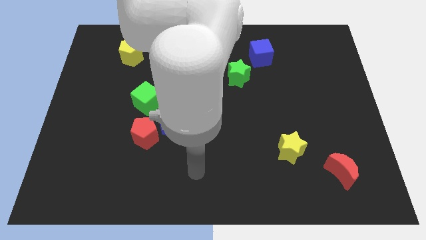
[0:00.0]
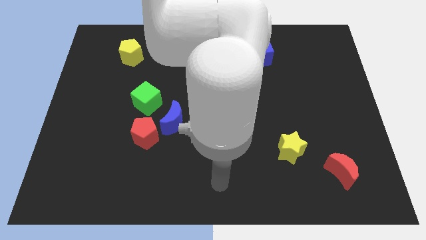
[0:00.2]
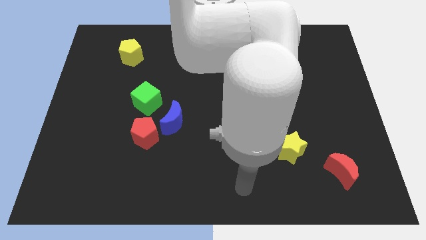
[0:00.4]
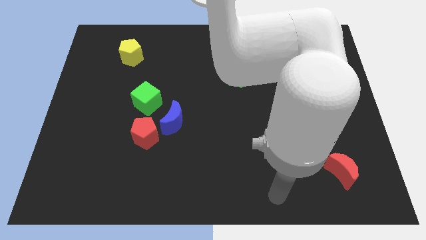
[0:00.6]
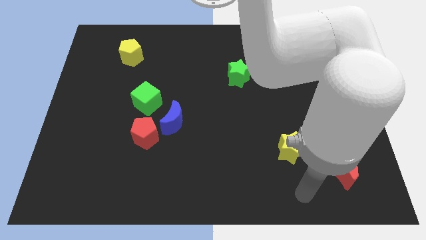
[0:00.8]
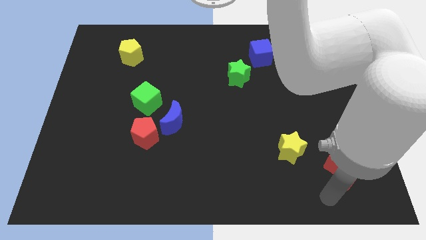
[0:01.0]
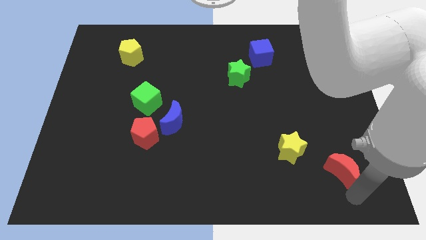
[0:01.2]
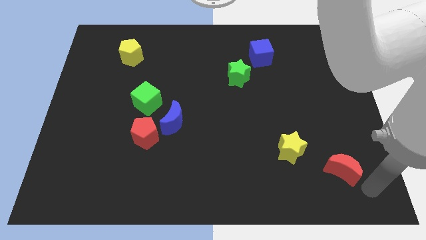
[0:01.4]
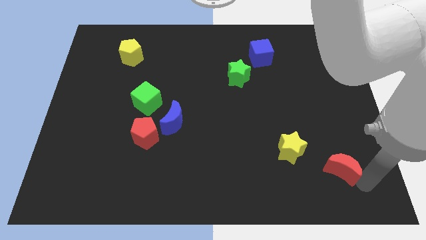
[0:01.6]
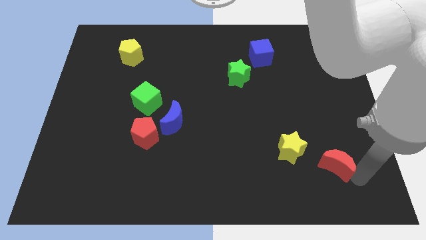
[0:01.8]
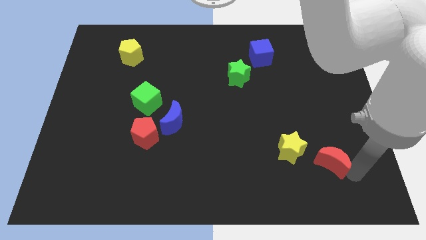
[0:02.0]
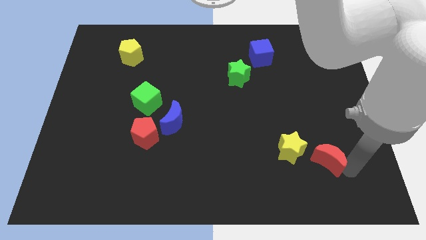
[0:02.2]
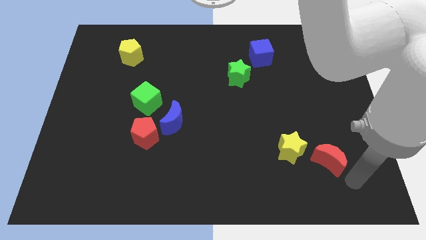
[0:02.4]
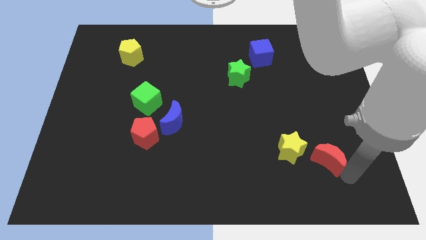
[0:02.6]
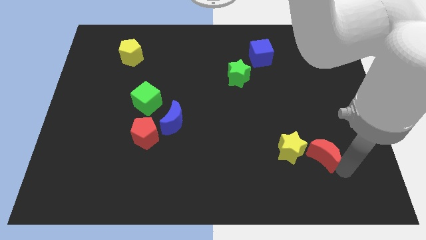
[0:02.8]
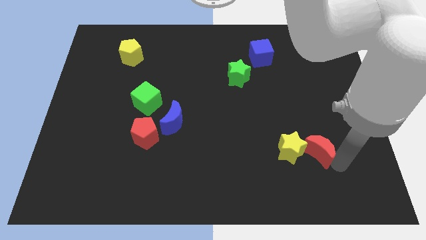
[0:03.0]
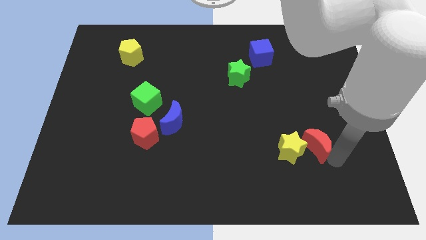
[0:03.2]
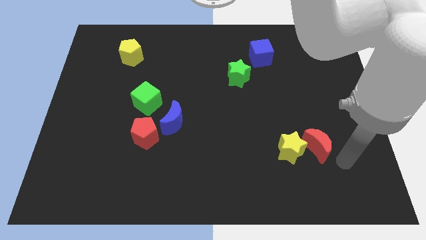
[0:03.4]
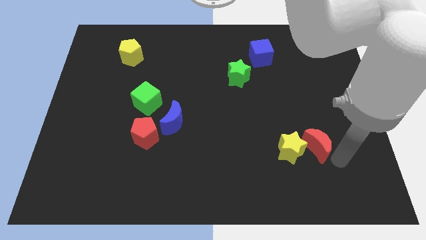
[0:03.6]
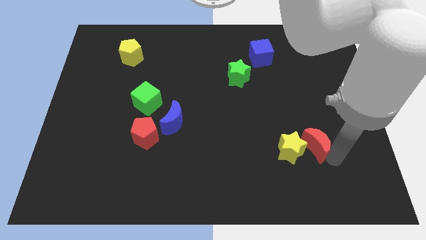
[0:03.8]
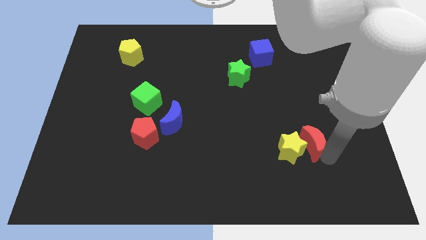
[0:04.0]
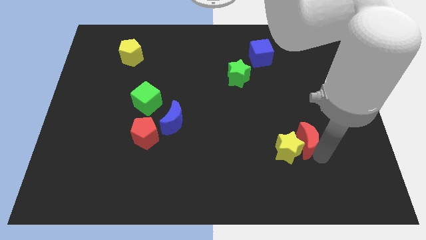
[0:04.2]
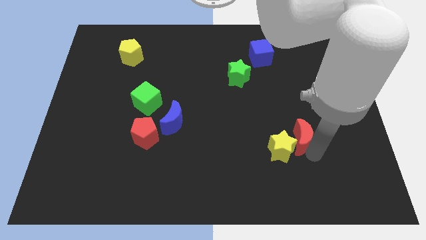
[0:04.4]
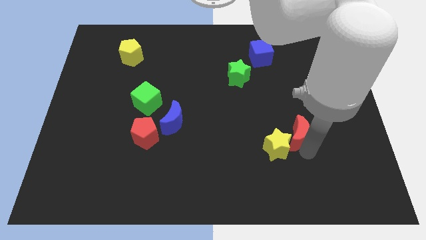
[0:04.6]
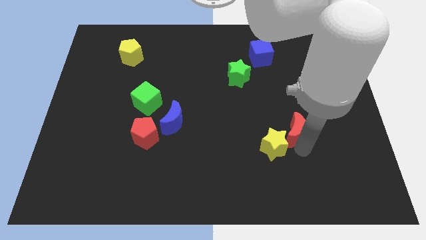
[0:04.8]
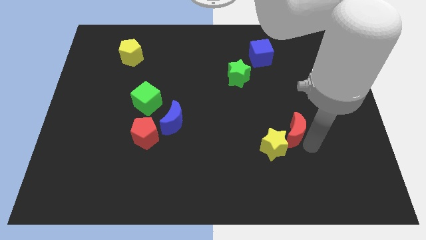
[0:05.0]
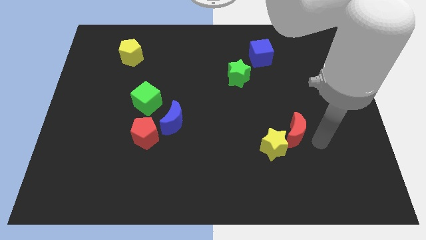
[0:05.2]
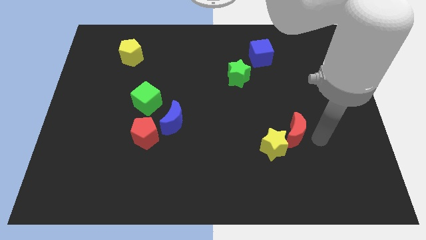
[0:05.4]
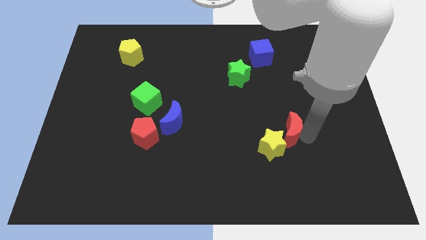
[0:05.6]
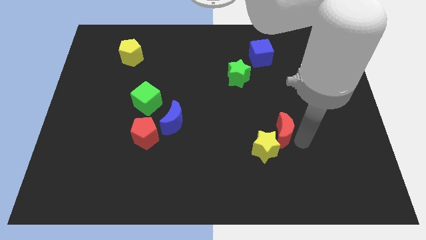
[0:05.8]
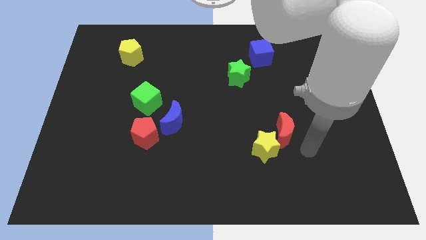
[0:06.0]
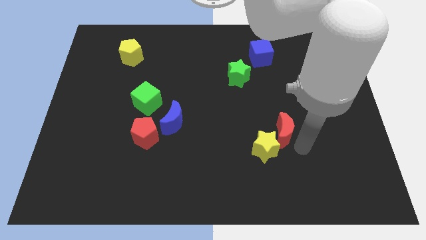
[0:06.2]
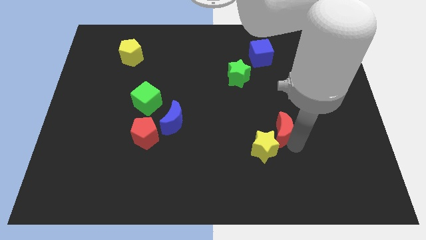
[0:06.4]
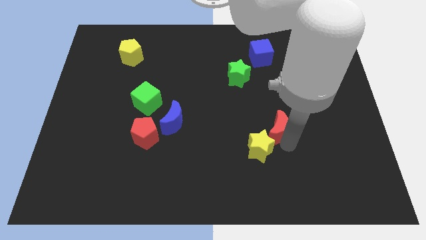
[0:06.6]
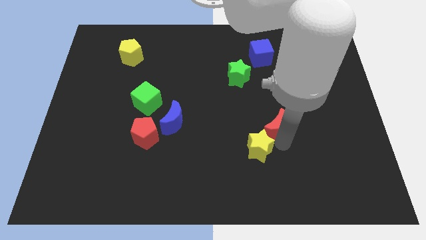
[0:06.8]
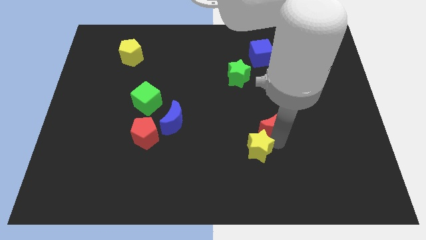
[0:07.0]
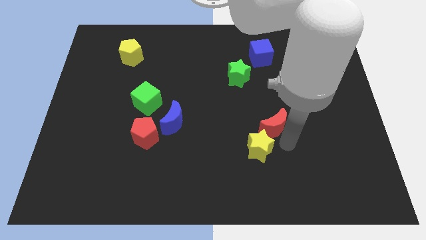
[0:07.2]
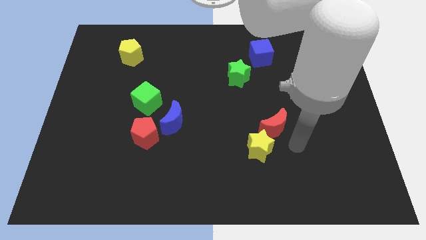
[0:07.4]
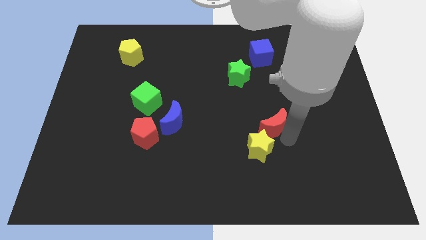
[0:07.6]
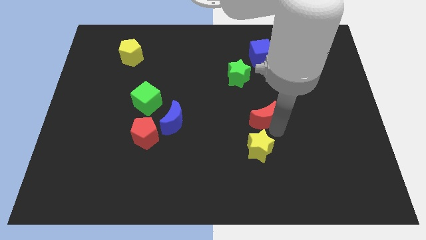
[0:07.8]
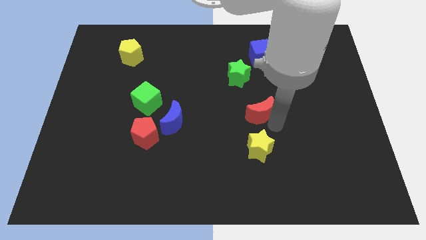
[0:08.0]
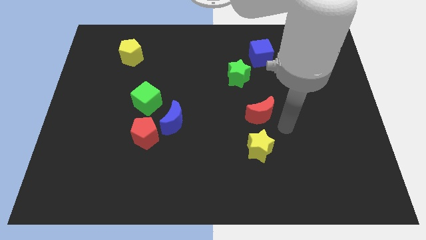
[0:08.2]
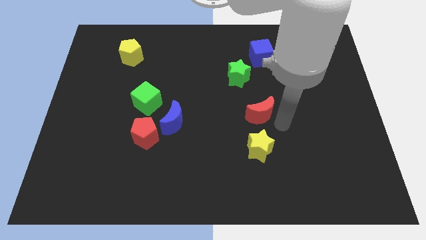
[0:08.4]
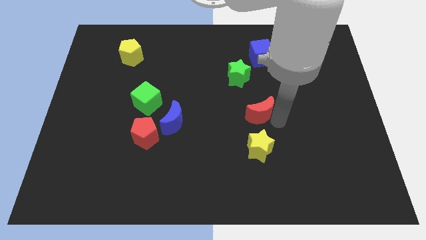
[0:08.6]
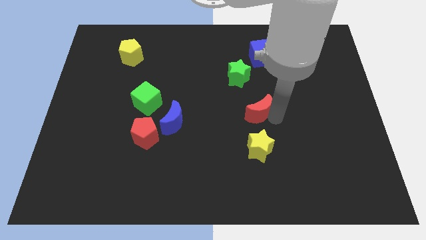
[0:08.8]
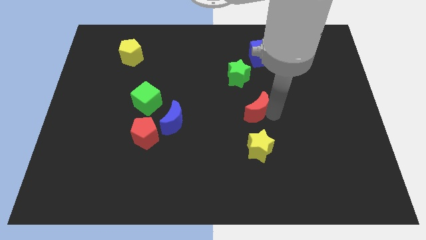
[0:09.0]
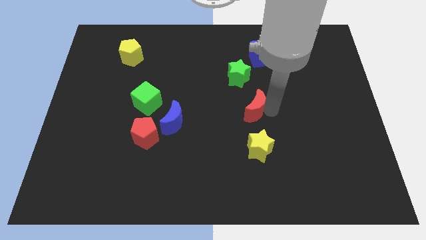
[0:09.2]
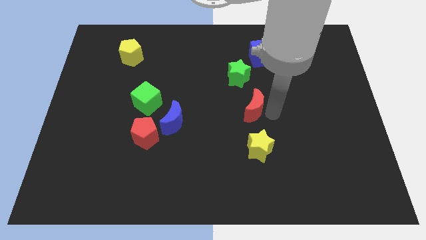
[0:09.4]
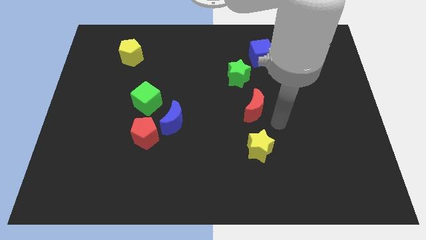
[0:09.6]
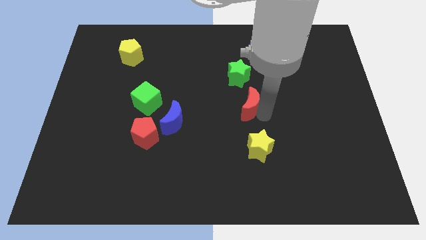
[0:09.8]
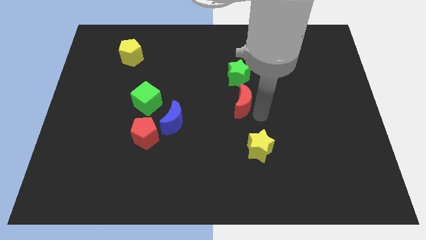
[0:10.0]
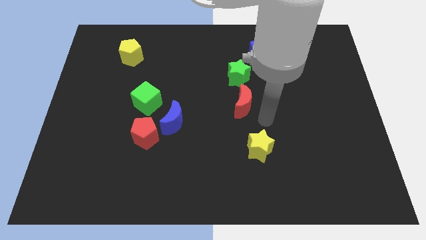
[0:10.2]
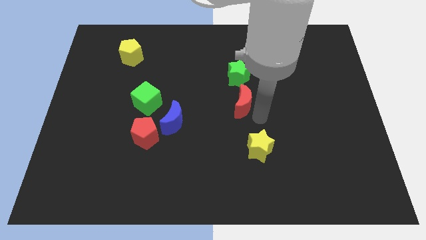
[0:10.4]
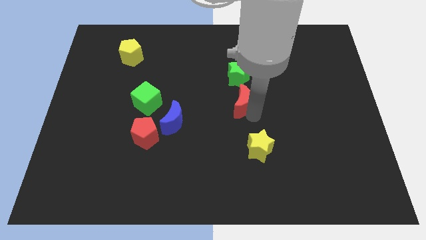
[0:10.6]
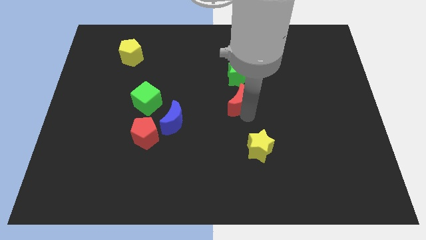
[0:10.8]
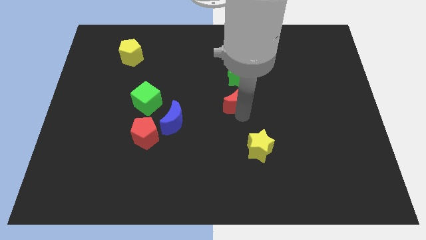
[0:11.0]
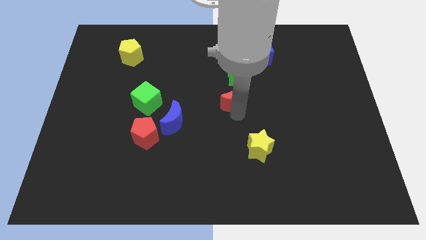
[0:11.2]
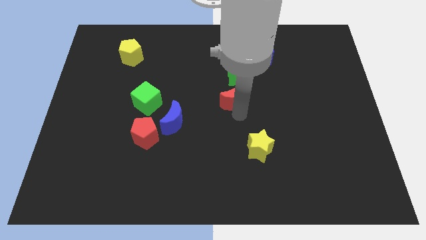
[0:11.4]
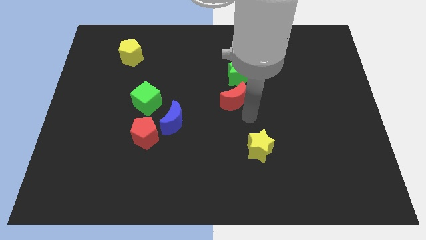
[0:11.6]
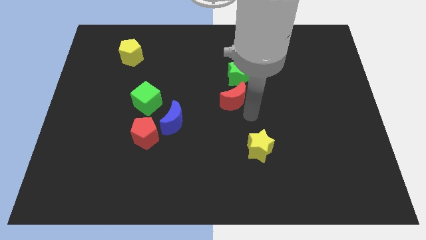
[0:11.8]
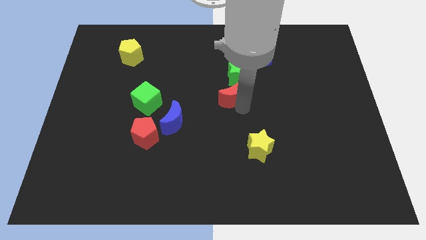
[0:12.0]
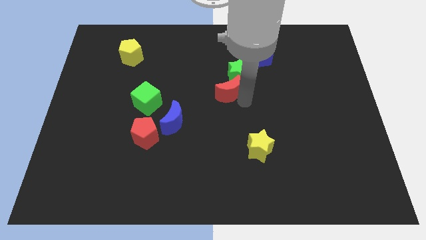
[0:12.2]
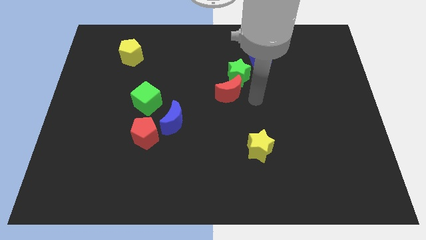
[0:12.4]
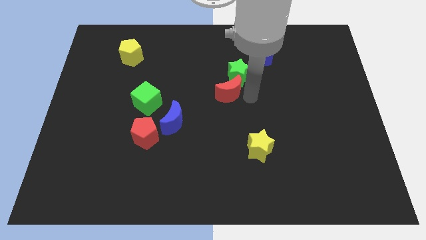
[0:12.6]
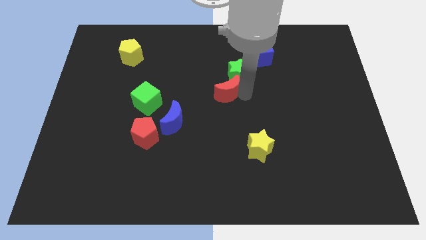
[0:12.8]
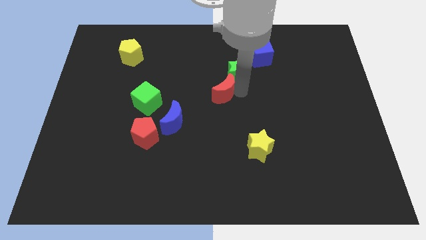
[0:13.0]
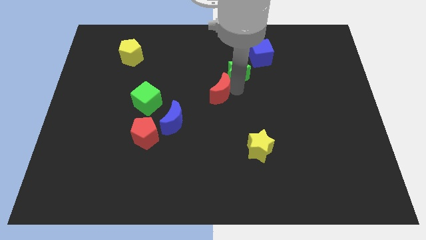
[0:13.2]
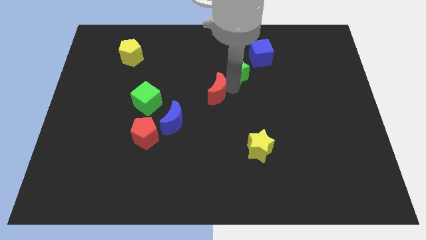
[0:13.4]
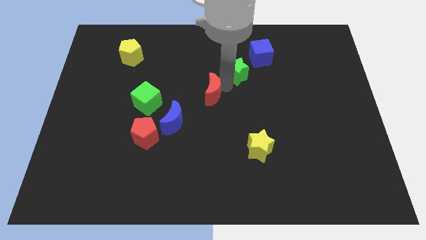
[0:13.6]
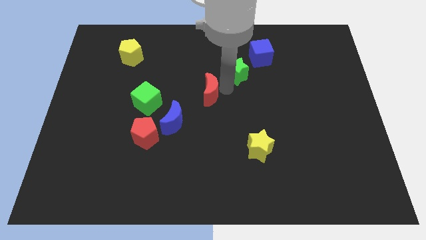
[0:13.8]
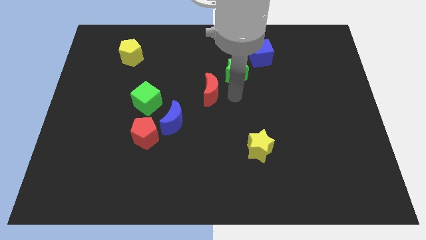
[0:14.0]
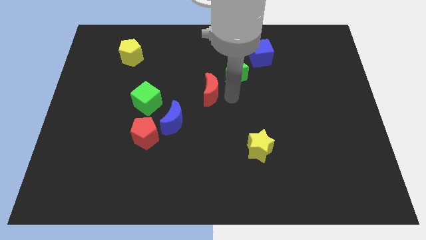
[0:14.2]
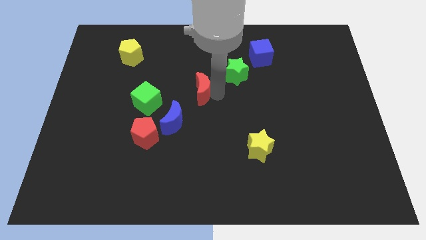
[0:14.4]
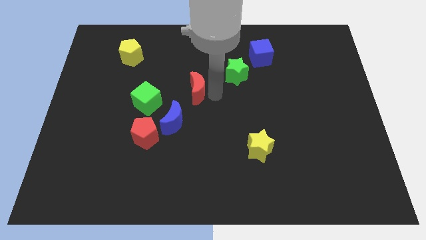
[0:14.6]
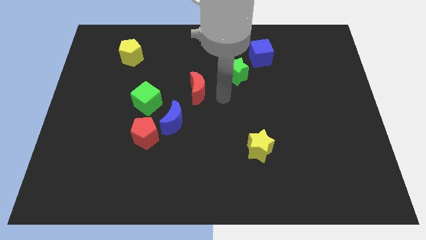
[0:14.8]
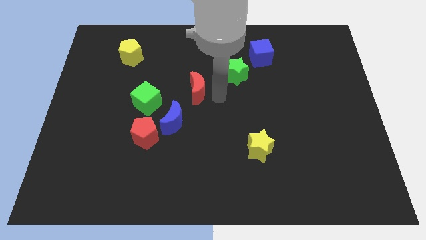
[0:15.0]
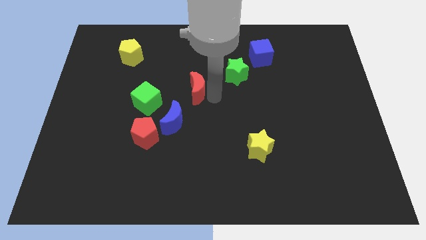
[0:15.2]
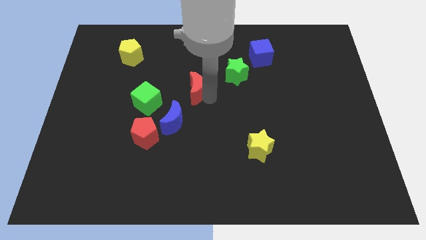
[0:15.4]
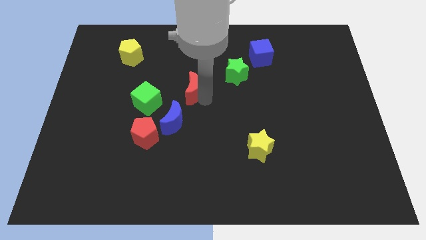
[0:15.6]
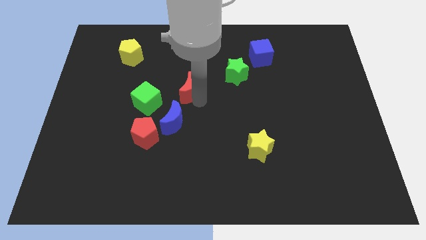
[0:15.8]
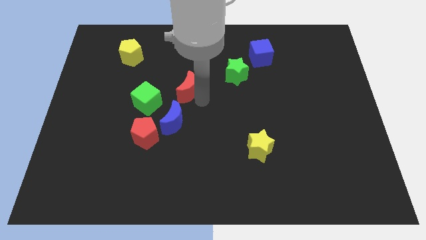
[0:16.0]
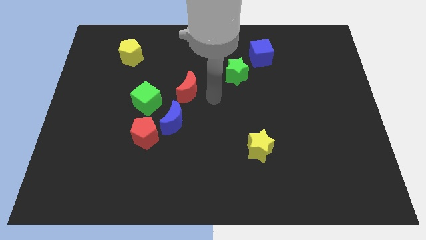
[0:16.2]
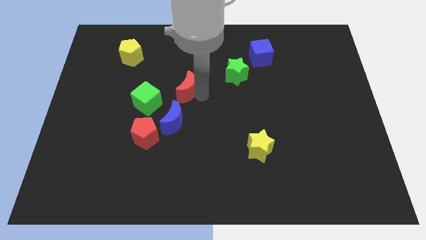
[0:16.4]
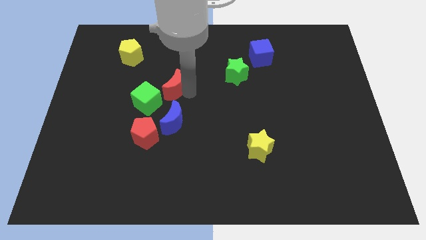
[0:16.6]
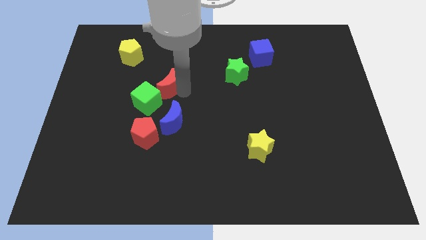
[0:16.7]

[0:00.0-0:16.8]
move the red moon above the red pentagon
